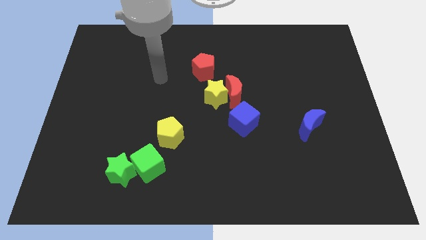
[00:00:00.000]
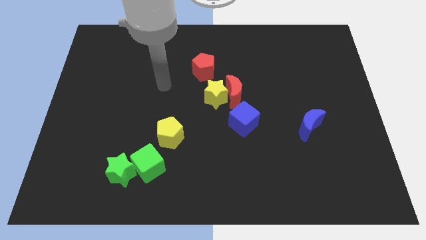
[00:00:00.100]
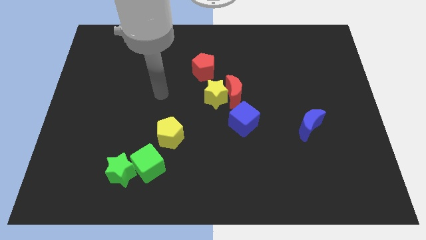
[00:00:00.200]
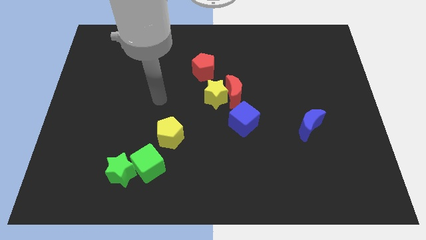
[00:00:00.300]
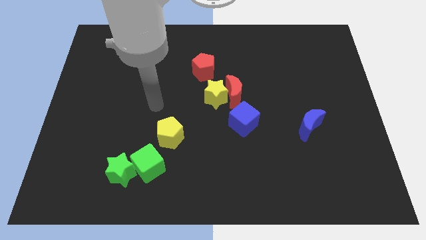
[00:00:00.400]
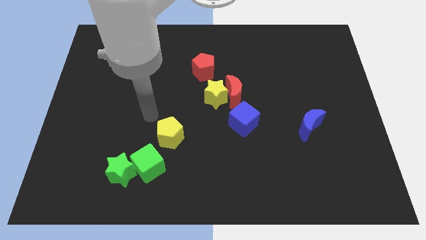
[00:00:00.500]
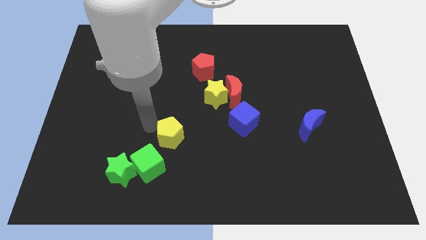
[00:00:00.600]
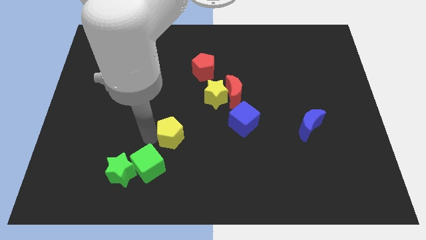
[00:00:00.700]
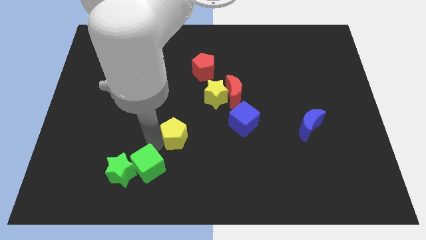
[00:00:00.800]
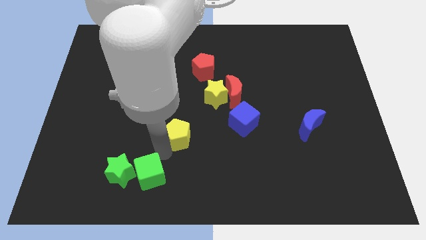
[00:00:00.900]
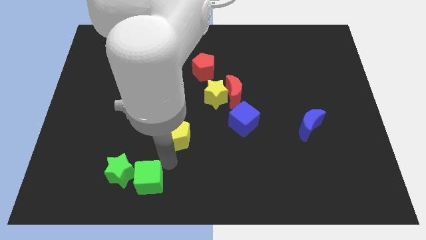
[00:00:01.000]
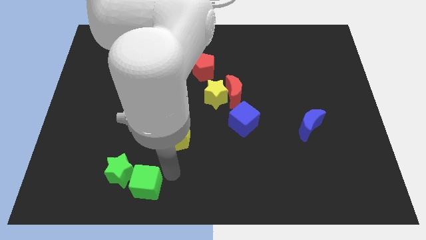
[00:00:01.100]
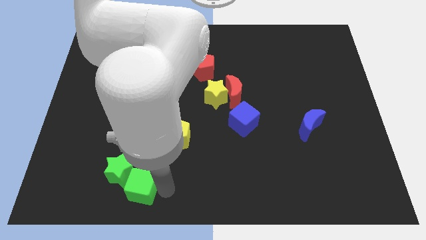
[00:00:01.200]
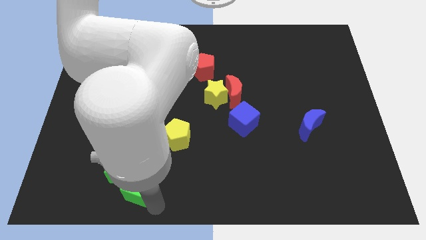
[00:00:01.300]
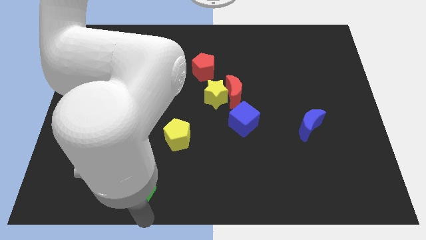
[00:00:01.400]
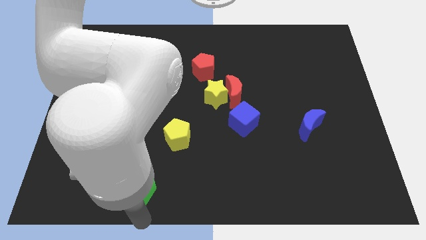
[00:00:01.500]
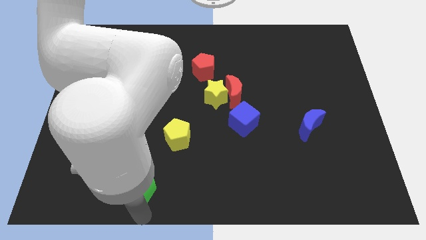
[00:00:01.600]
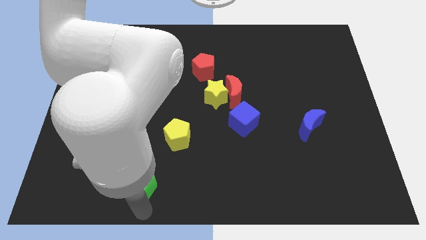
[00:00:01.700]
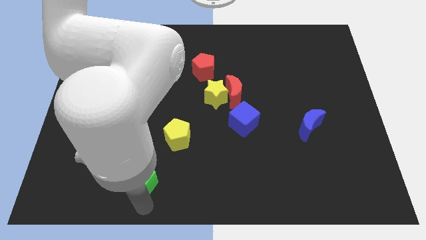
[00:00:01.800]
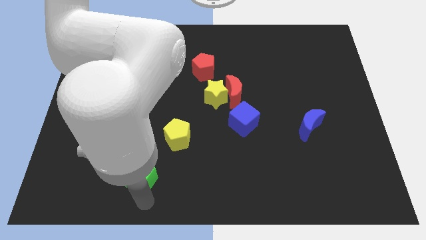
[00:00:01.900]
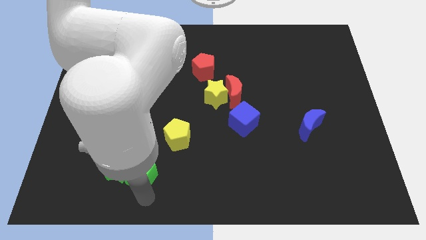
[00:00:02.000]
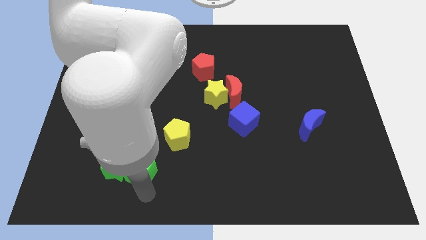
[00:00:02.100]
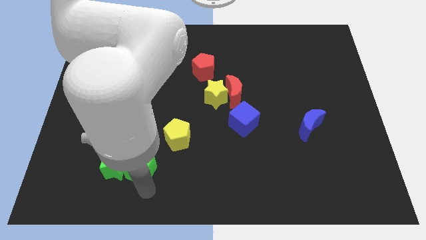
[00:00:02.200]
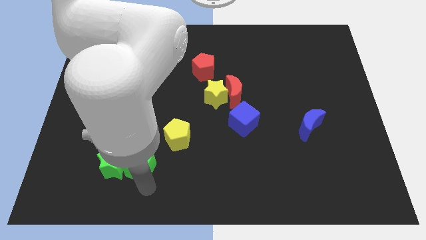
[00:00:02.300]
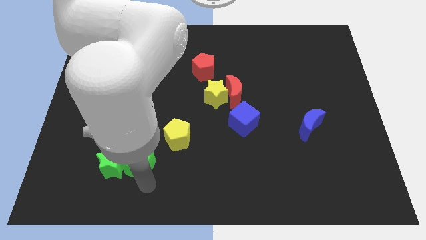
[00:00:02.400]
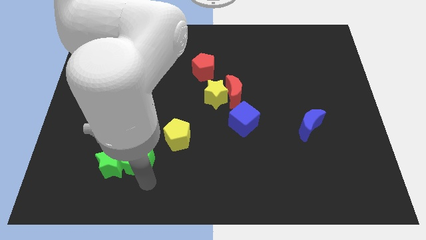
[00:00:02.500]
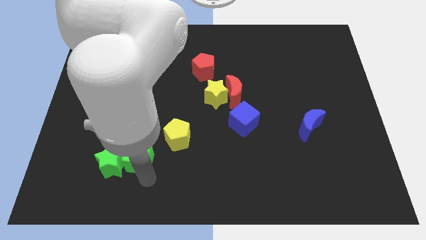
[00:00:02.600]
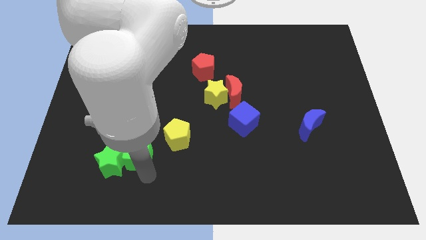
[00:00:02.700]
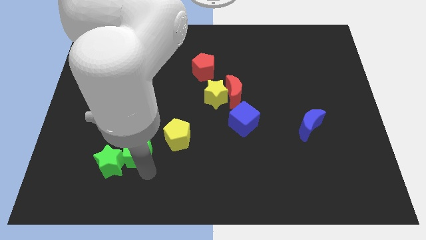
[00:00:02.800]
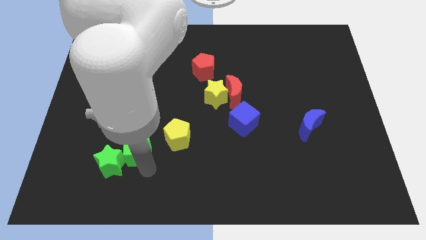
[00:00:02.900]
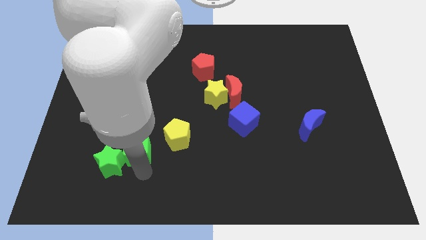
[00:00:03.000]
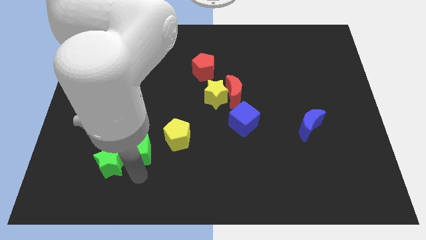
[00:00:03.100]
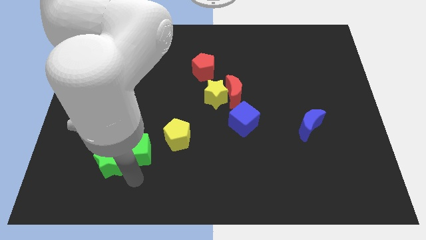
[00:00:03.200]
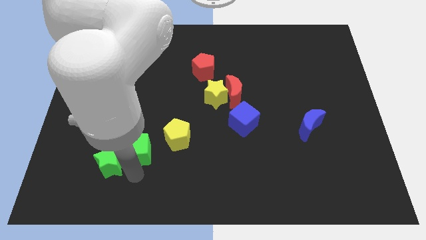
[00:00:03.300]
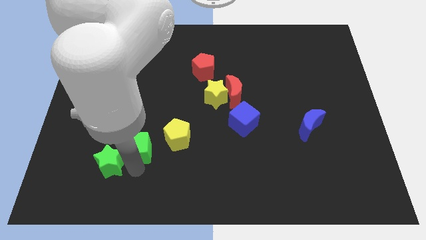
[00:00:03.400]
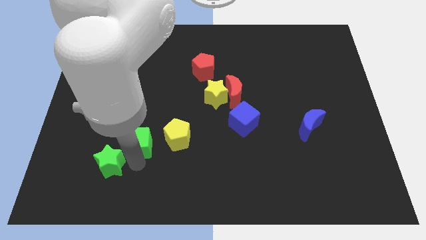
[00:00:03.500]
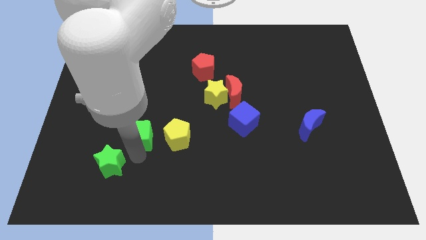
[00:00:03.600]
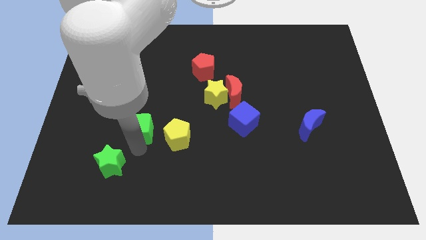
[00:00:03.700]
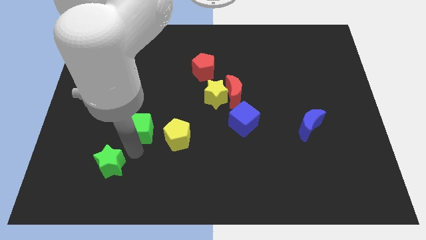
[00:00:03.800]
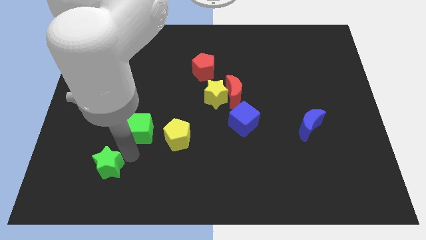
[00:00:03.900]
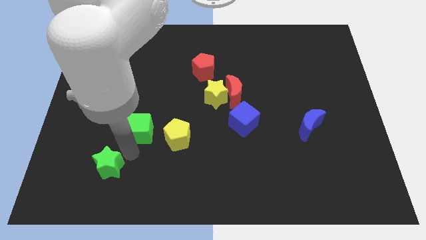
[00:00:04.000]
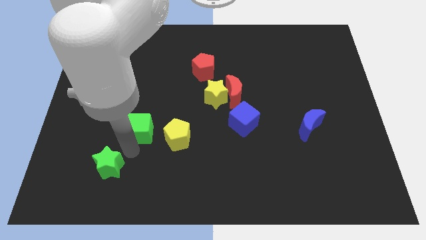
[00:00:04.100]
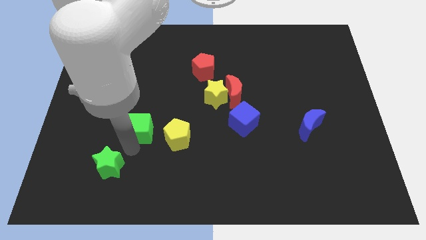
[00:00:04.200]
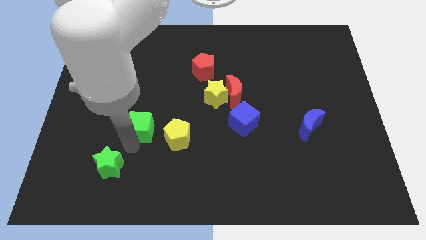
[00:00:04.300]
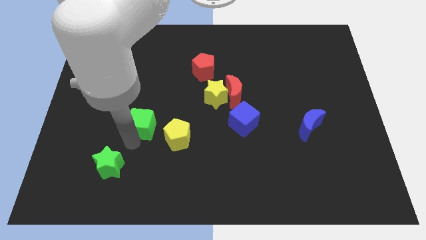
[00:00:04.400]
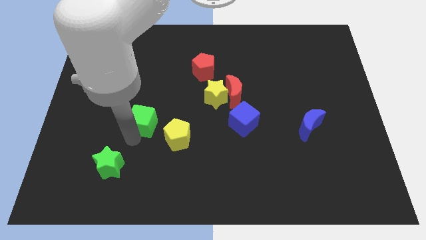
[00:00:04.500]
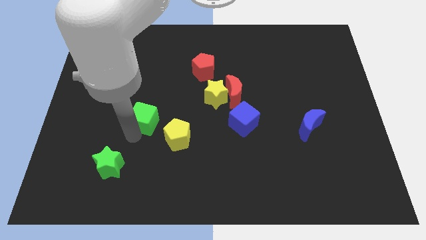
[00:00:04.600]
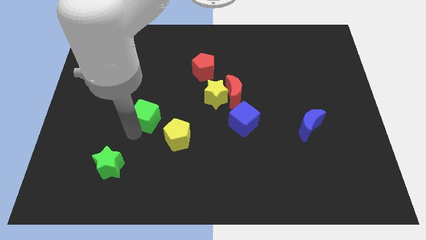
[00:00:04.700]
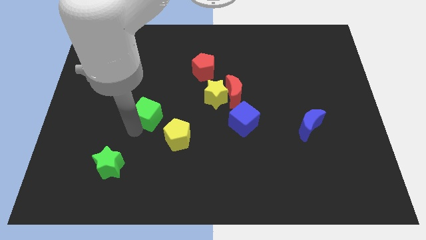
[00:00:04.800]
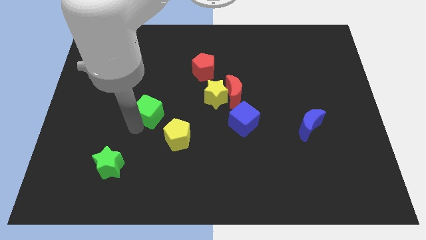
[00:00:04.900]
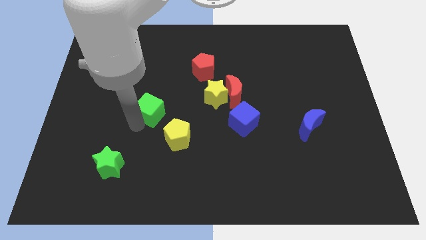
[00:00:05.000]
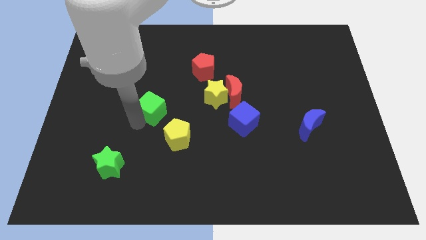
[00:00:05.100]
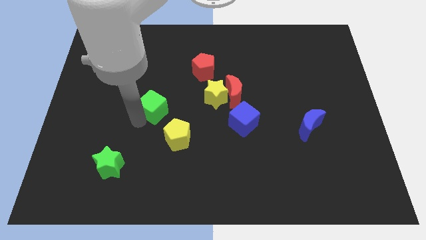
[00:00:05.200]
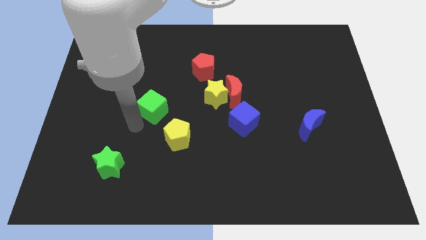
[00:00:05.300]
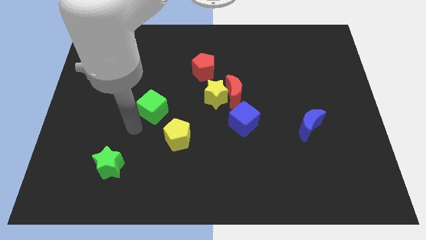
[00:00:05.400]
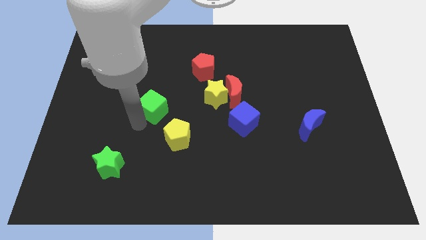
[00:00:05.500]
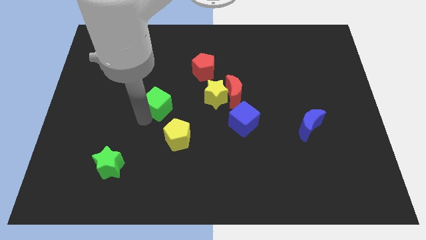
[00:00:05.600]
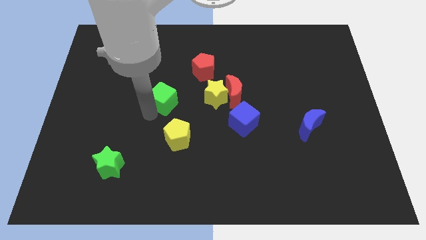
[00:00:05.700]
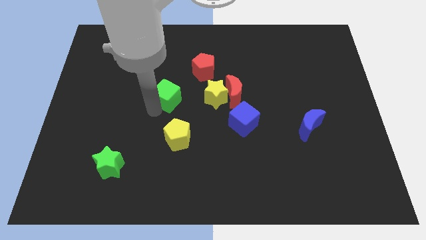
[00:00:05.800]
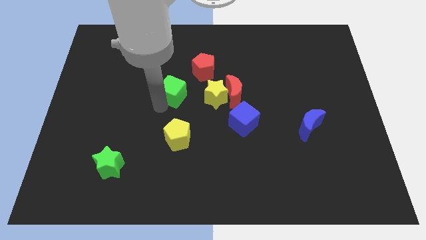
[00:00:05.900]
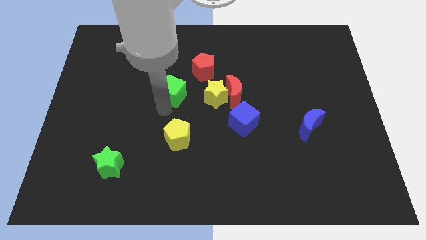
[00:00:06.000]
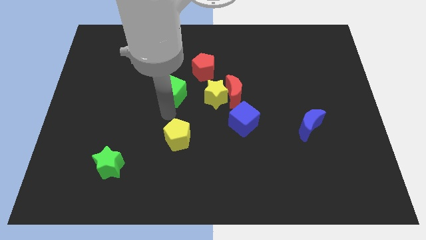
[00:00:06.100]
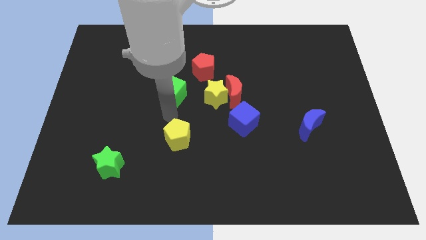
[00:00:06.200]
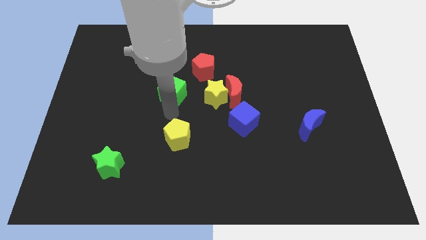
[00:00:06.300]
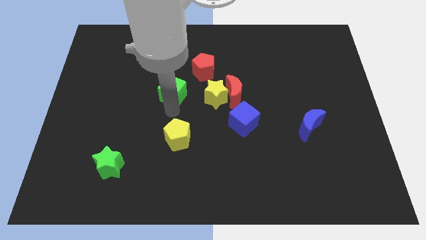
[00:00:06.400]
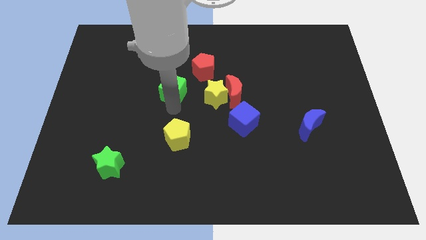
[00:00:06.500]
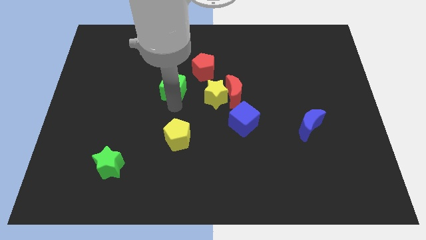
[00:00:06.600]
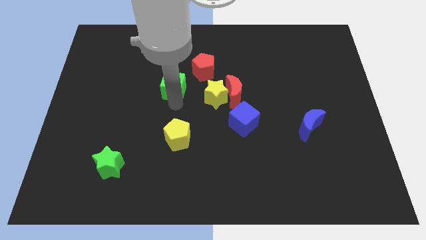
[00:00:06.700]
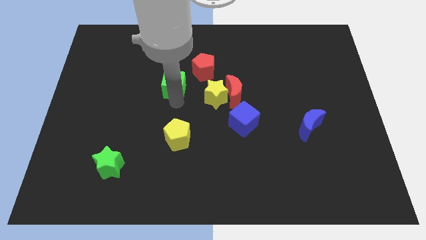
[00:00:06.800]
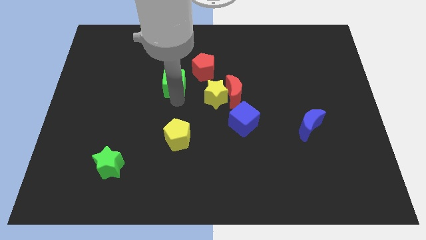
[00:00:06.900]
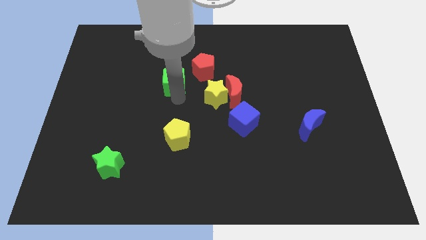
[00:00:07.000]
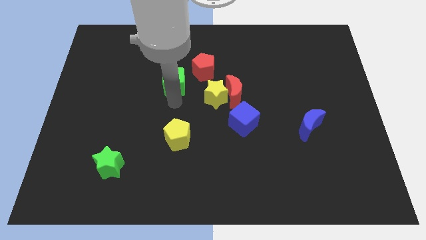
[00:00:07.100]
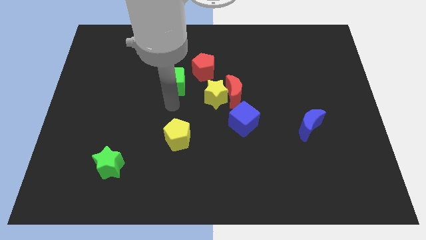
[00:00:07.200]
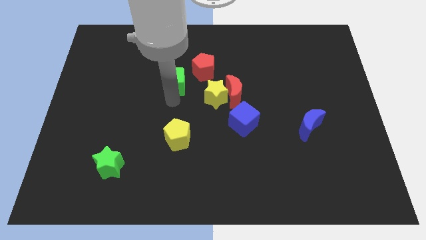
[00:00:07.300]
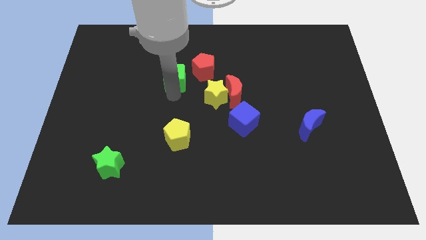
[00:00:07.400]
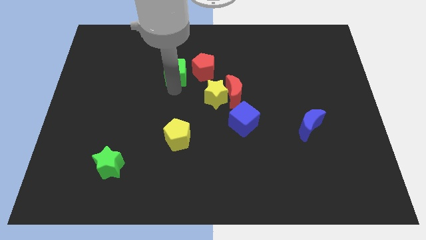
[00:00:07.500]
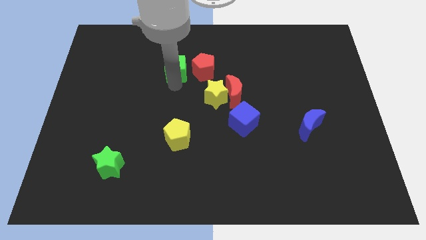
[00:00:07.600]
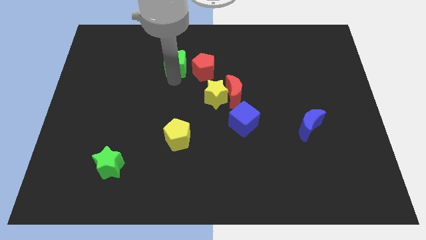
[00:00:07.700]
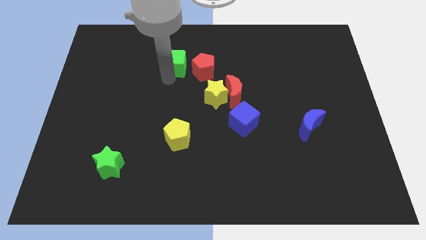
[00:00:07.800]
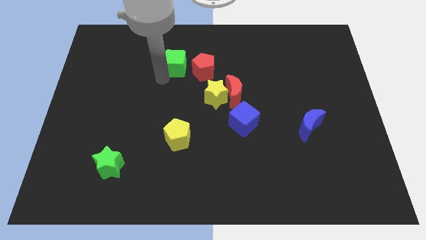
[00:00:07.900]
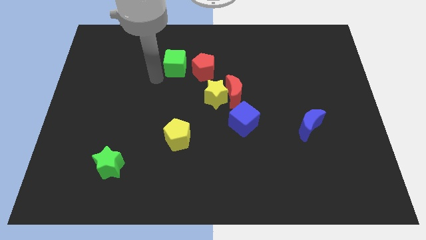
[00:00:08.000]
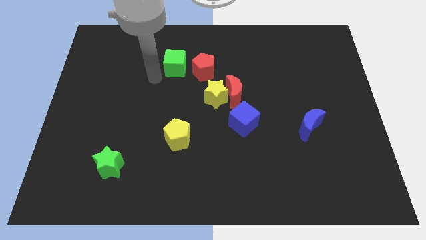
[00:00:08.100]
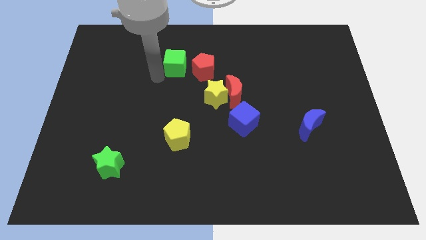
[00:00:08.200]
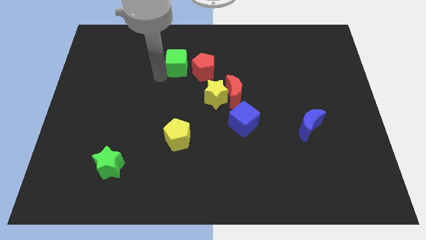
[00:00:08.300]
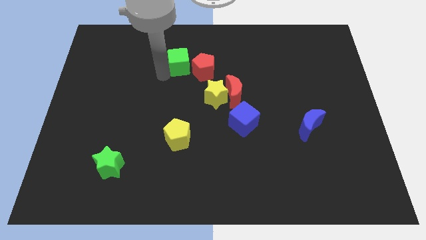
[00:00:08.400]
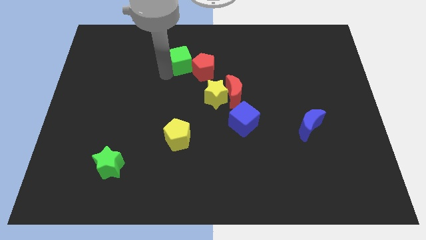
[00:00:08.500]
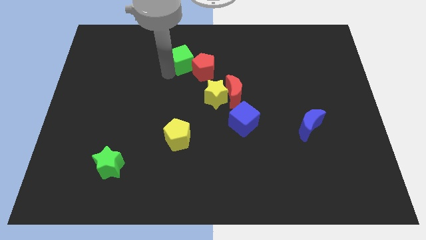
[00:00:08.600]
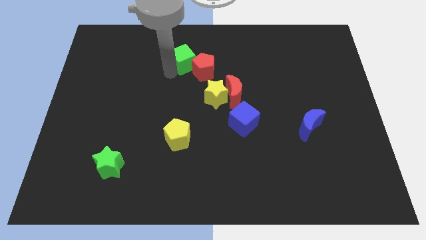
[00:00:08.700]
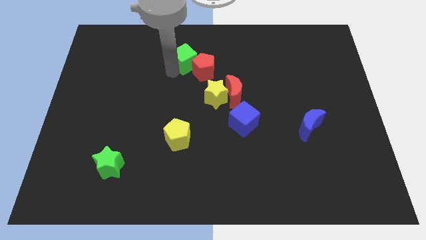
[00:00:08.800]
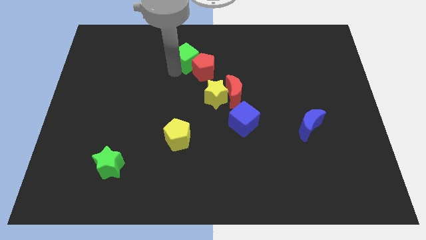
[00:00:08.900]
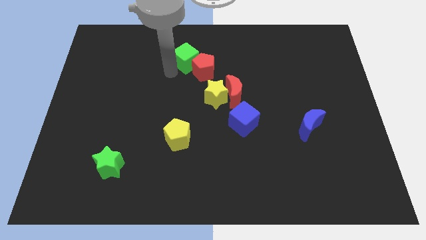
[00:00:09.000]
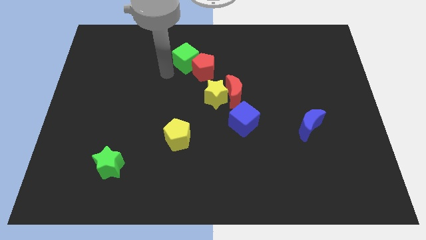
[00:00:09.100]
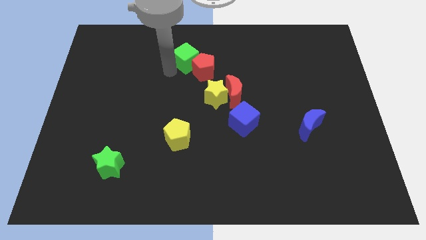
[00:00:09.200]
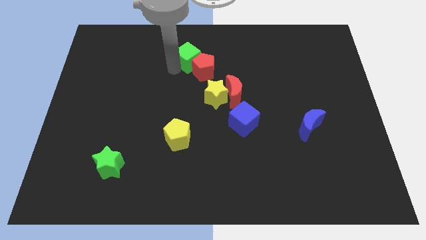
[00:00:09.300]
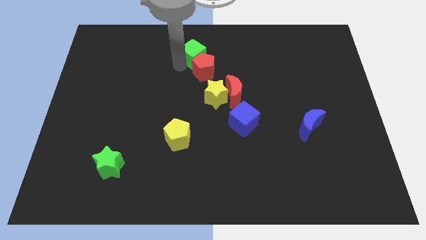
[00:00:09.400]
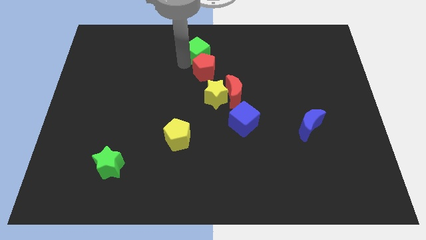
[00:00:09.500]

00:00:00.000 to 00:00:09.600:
push the green cube to the top
